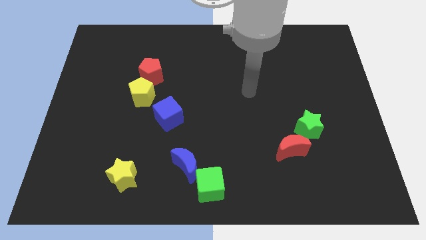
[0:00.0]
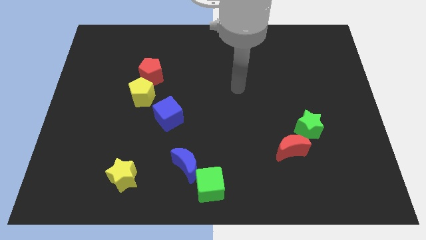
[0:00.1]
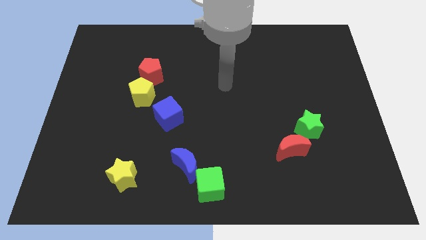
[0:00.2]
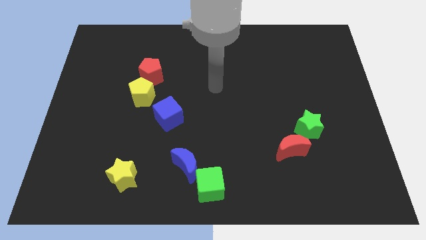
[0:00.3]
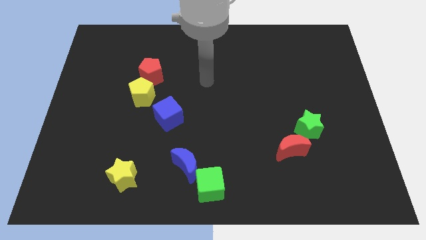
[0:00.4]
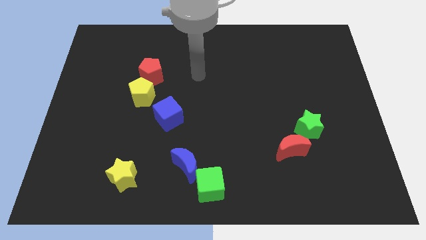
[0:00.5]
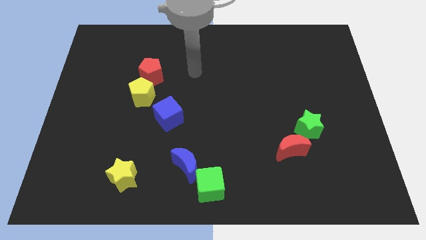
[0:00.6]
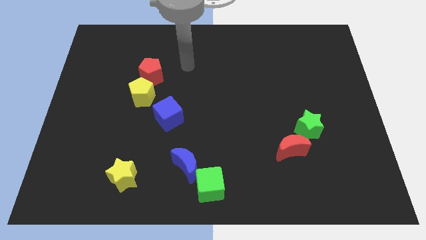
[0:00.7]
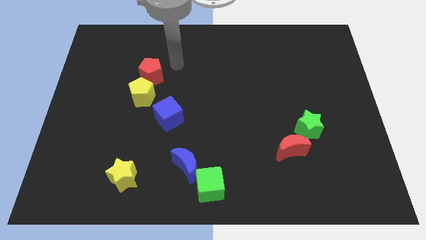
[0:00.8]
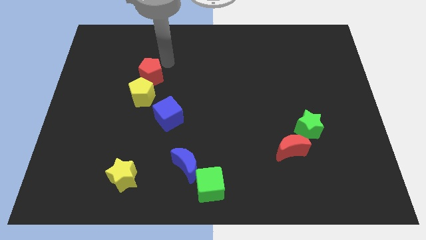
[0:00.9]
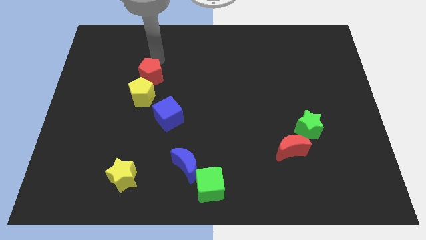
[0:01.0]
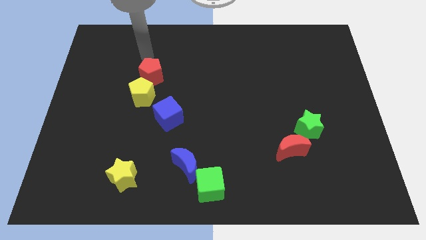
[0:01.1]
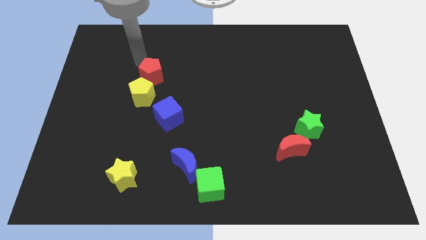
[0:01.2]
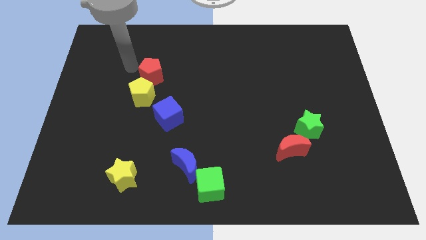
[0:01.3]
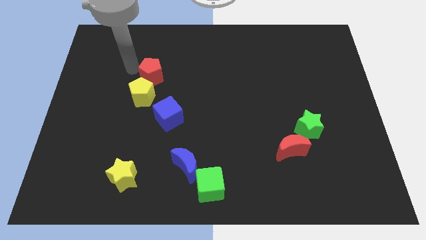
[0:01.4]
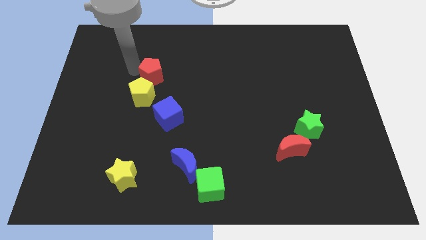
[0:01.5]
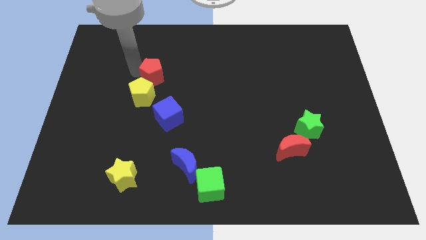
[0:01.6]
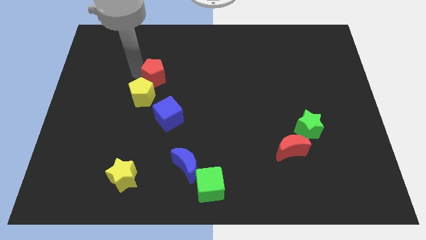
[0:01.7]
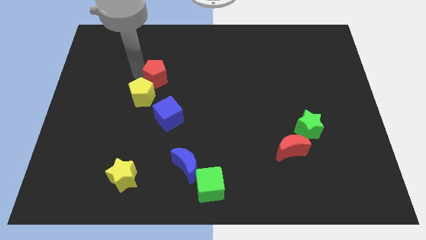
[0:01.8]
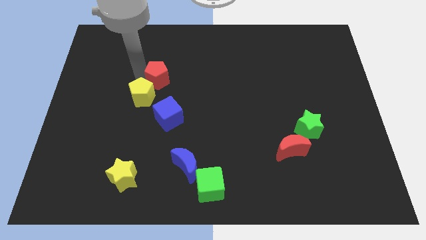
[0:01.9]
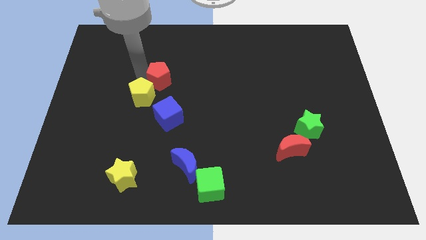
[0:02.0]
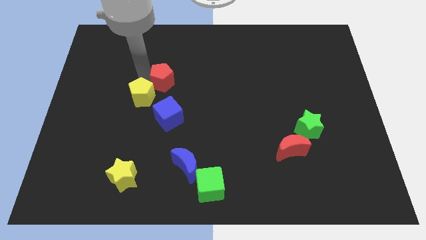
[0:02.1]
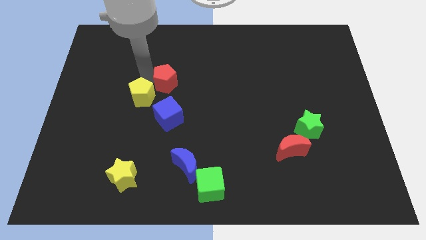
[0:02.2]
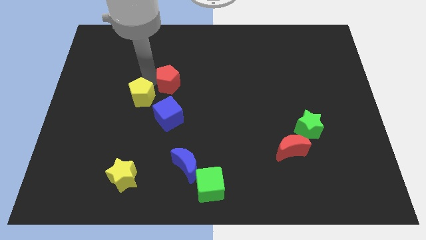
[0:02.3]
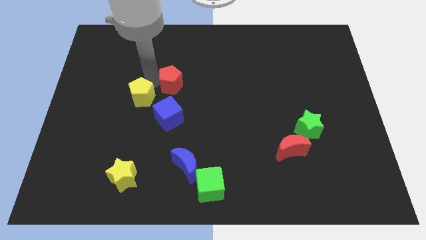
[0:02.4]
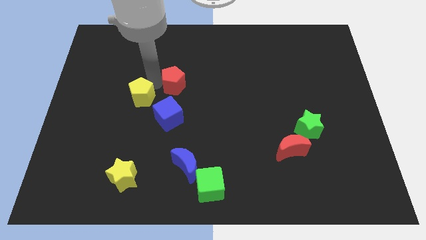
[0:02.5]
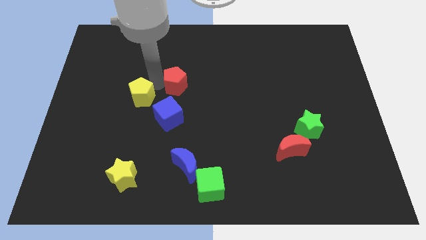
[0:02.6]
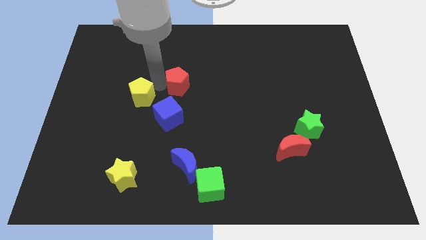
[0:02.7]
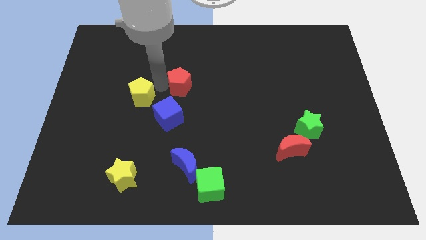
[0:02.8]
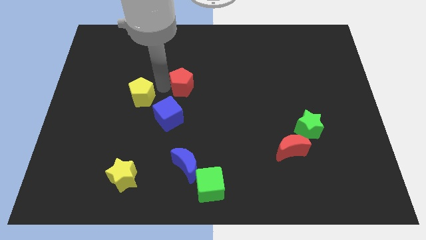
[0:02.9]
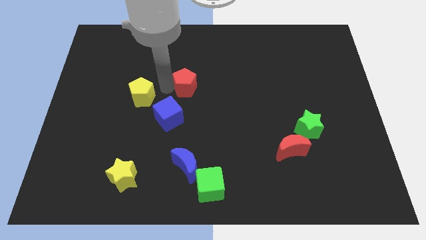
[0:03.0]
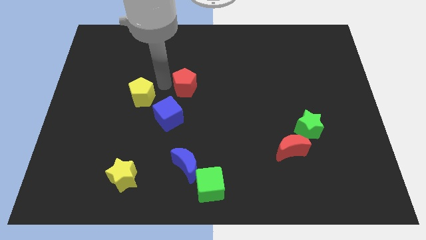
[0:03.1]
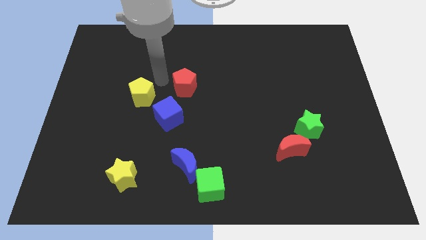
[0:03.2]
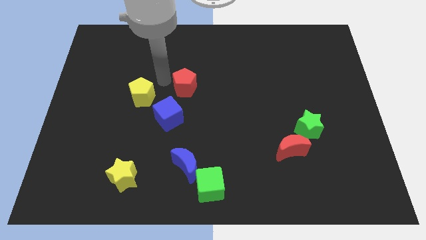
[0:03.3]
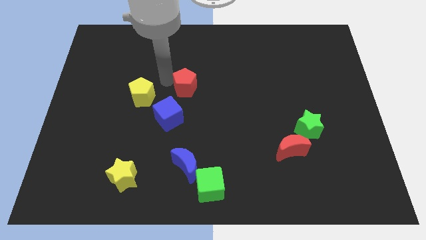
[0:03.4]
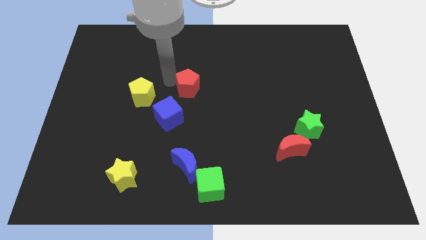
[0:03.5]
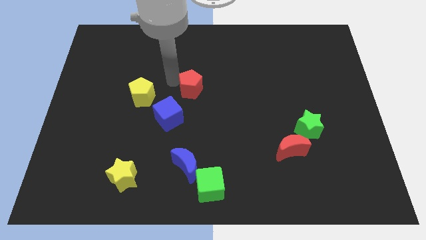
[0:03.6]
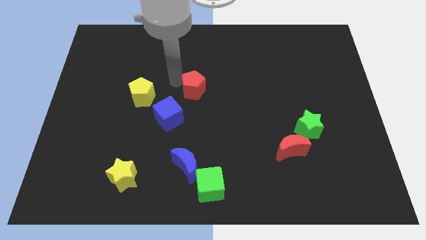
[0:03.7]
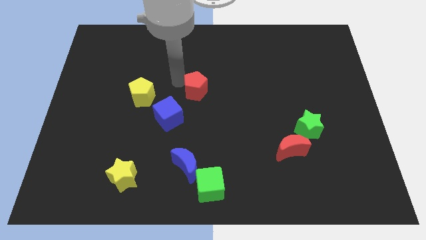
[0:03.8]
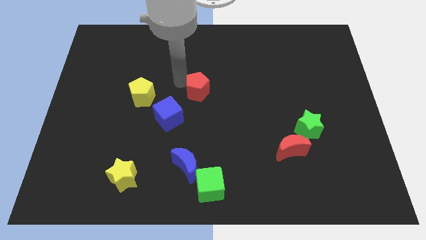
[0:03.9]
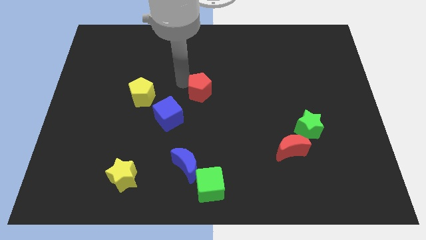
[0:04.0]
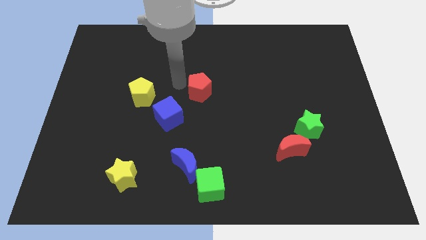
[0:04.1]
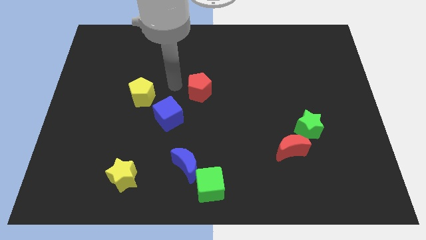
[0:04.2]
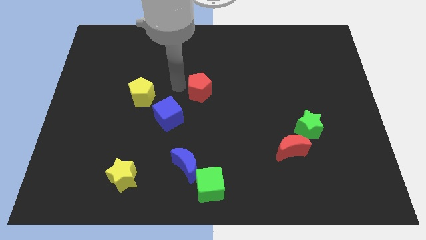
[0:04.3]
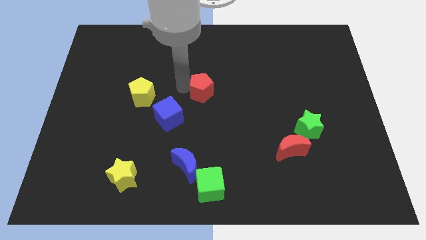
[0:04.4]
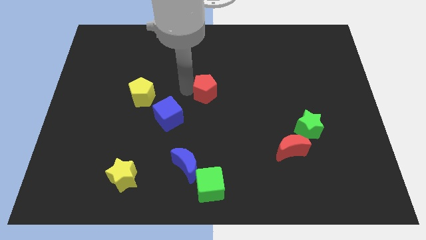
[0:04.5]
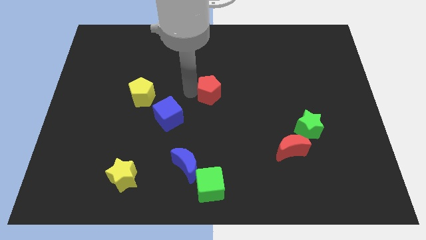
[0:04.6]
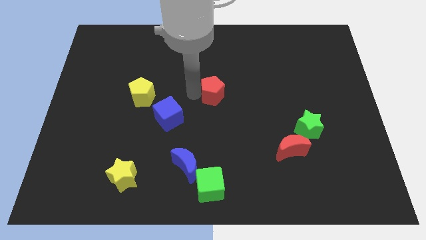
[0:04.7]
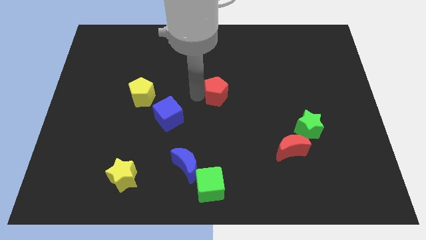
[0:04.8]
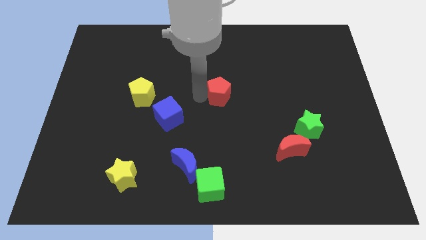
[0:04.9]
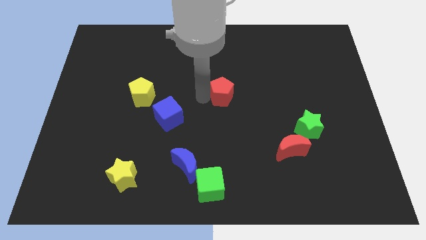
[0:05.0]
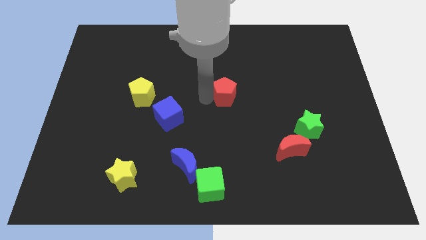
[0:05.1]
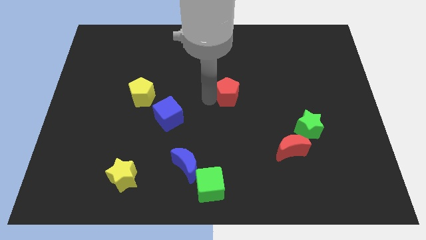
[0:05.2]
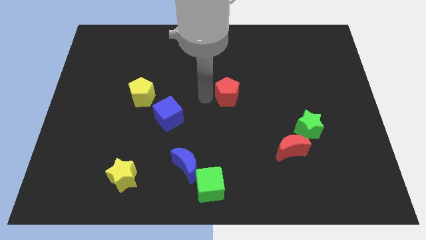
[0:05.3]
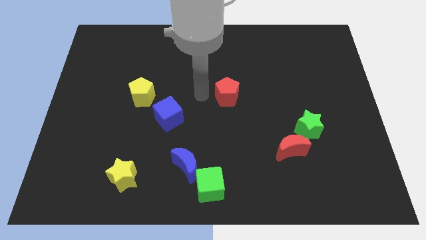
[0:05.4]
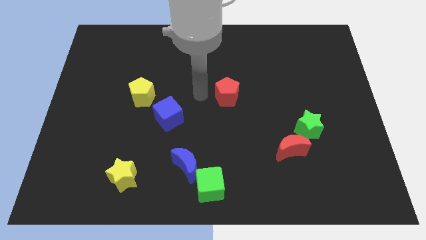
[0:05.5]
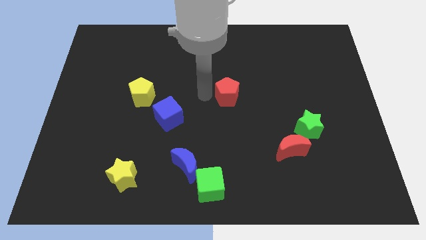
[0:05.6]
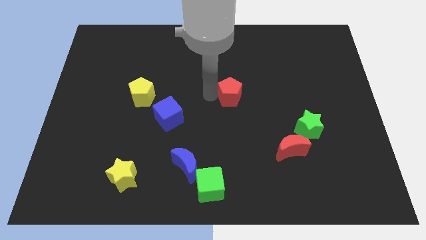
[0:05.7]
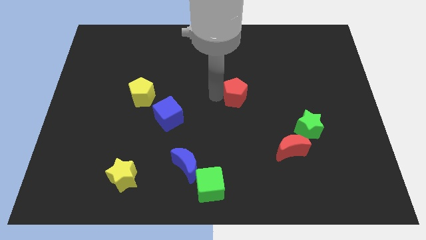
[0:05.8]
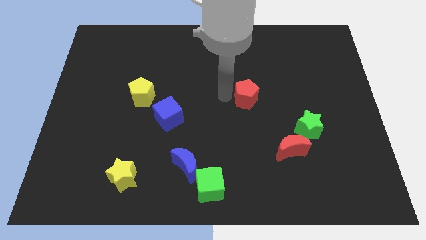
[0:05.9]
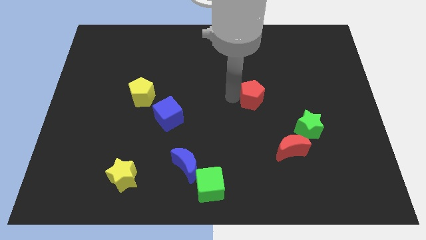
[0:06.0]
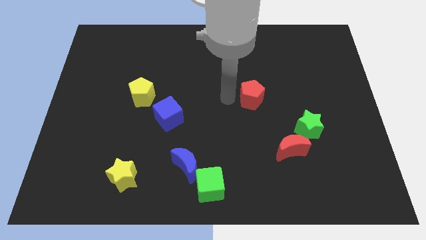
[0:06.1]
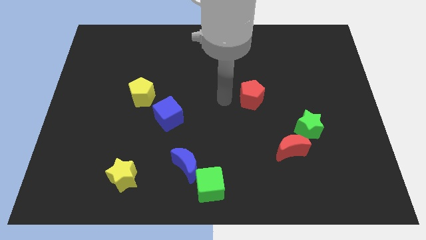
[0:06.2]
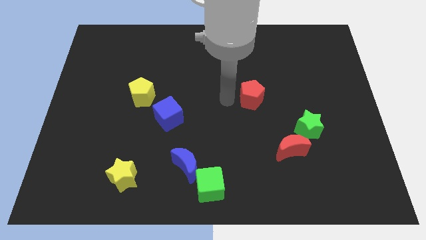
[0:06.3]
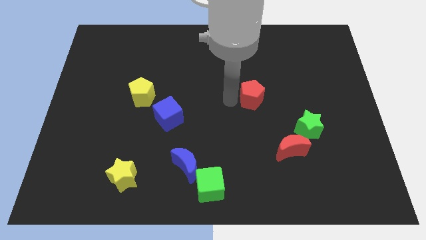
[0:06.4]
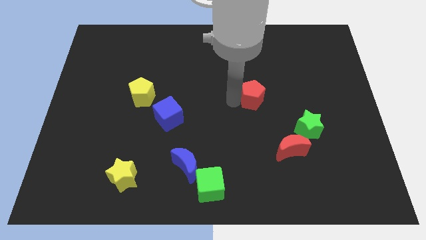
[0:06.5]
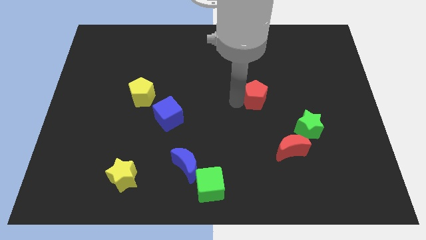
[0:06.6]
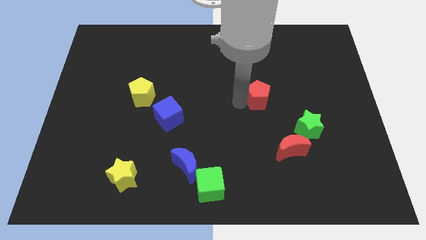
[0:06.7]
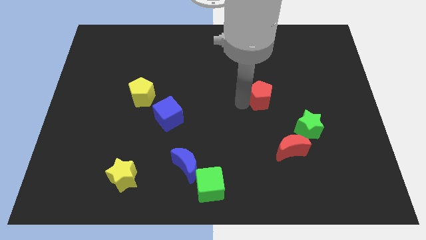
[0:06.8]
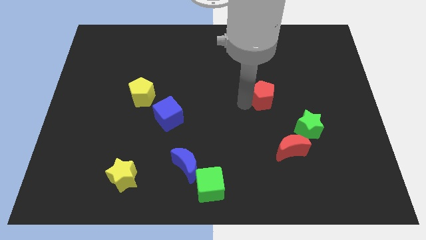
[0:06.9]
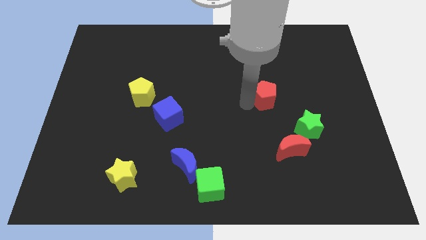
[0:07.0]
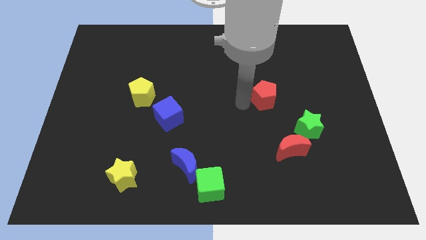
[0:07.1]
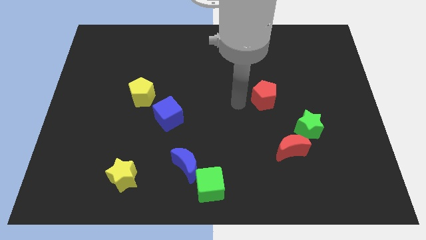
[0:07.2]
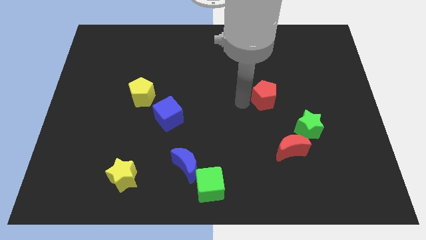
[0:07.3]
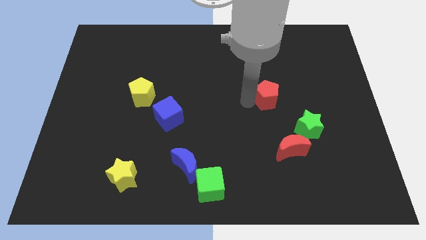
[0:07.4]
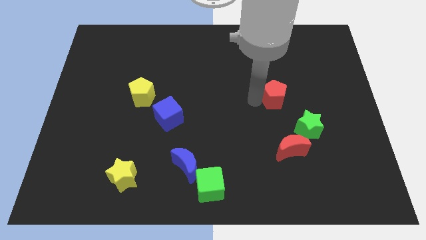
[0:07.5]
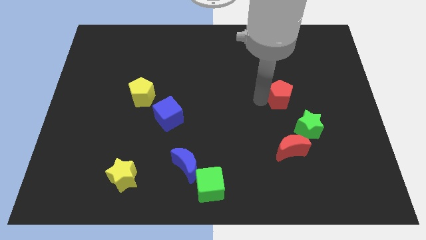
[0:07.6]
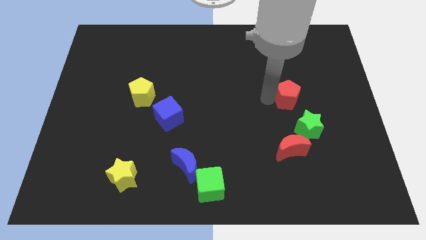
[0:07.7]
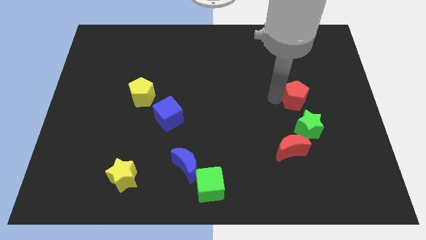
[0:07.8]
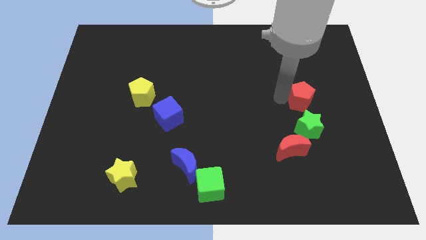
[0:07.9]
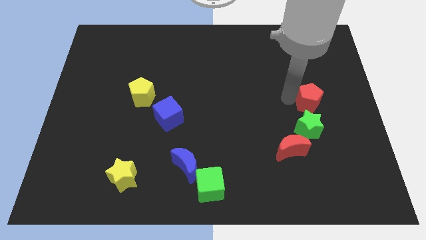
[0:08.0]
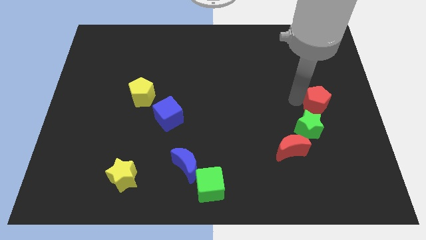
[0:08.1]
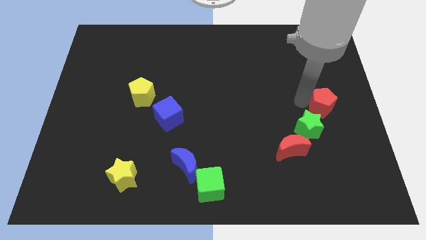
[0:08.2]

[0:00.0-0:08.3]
put the red pentagon to the right side of the board
